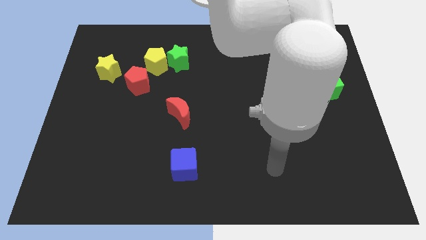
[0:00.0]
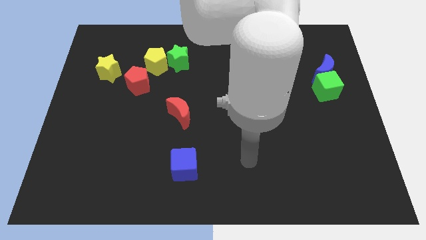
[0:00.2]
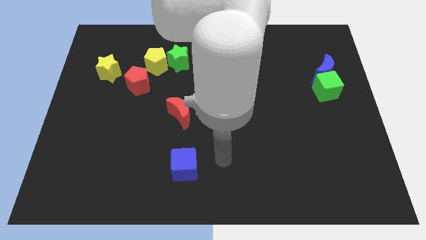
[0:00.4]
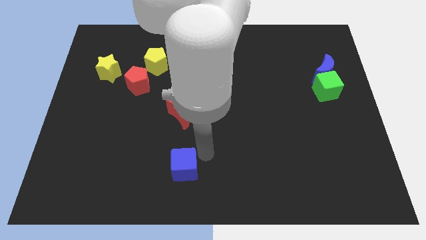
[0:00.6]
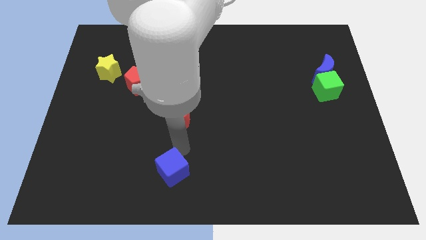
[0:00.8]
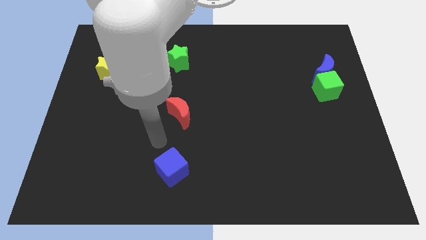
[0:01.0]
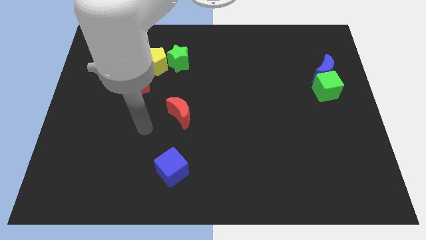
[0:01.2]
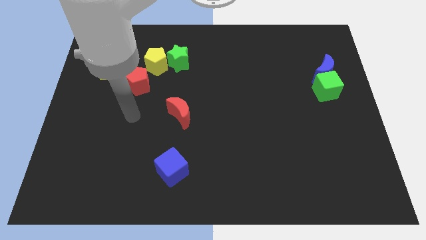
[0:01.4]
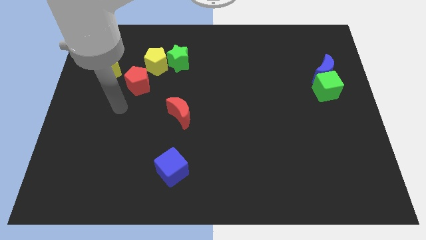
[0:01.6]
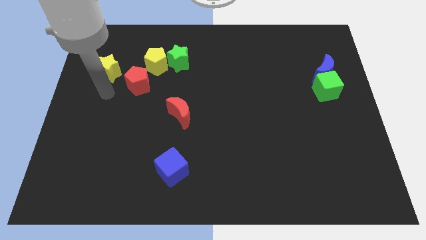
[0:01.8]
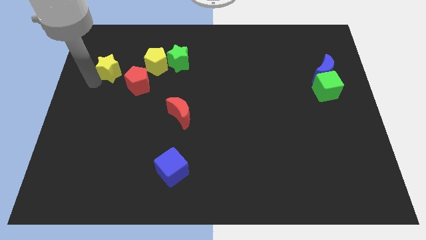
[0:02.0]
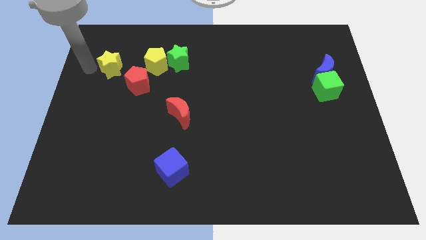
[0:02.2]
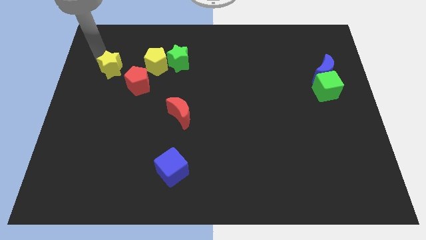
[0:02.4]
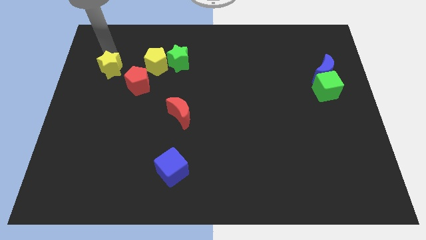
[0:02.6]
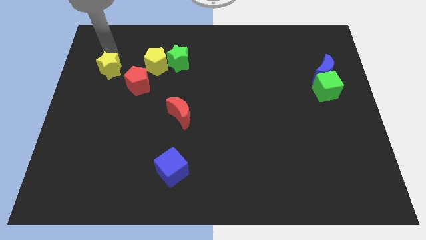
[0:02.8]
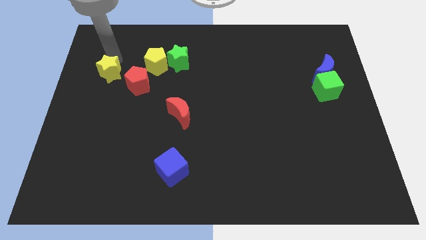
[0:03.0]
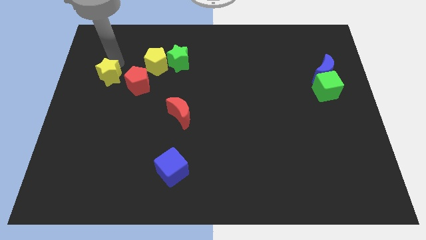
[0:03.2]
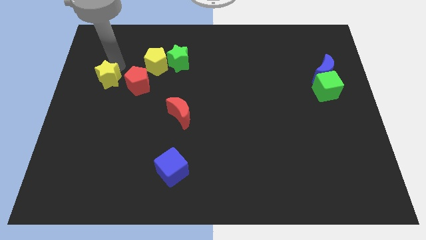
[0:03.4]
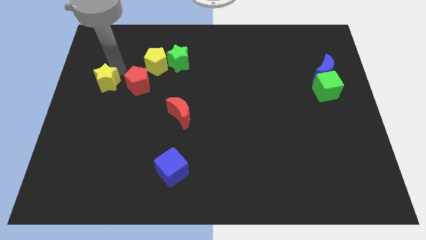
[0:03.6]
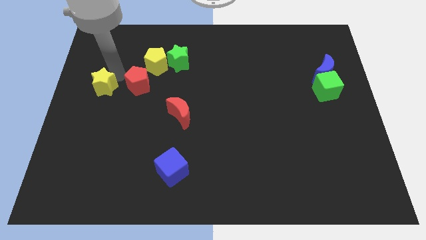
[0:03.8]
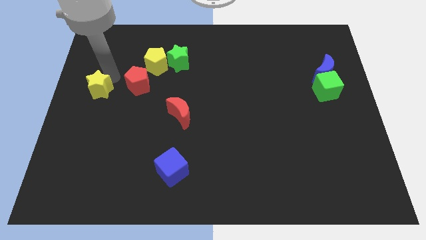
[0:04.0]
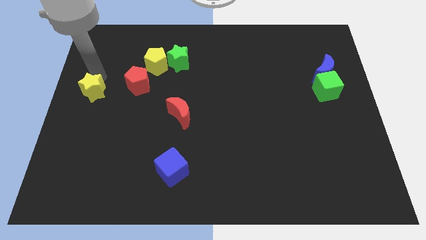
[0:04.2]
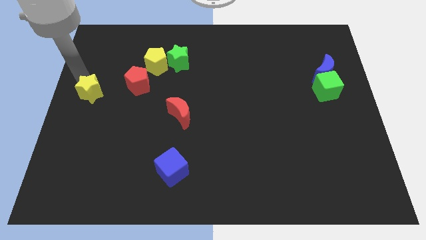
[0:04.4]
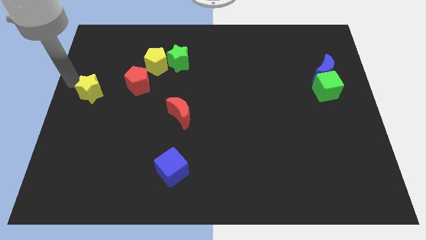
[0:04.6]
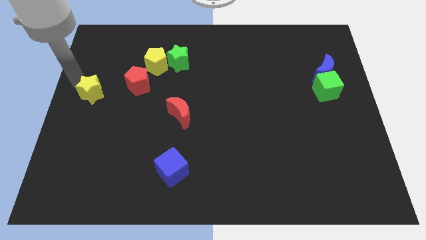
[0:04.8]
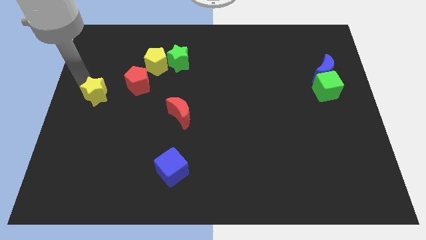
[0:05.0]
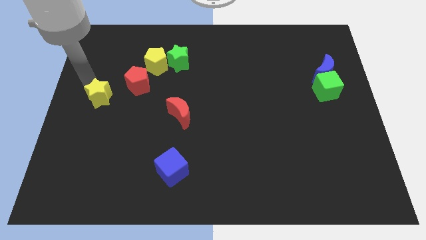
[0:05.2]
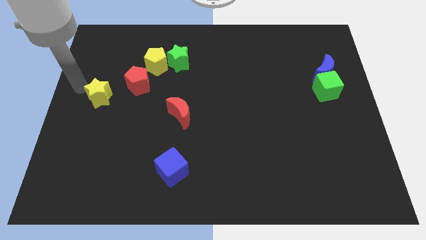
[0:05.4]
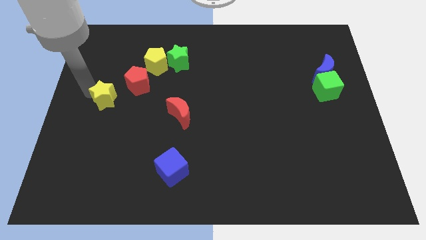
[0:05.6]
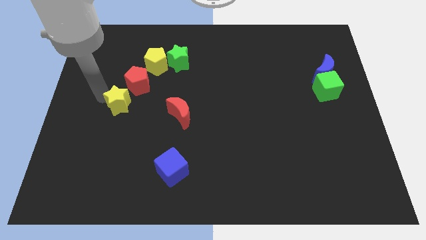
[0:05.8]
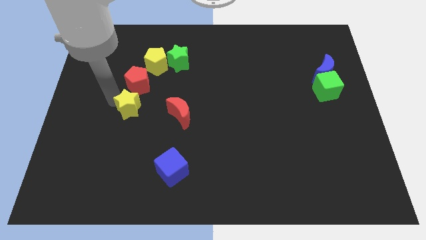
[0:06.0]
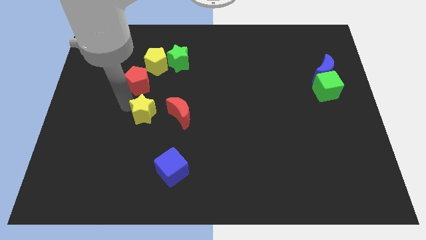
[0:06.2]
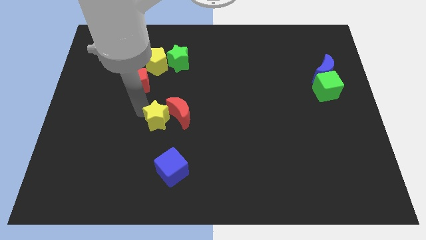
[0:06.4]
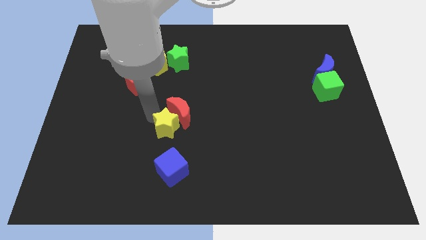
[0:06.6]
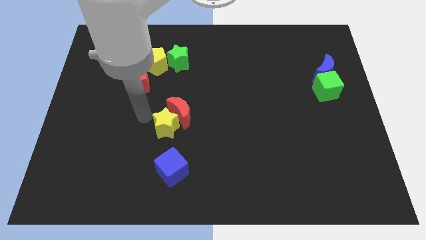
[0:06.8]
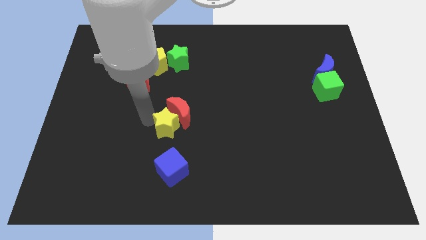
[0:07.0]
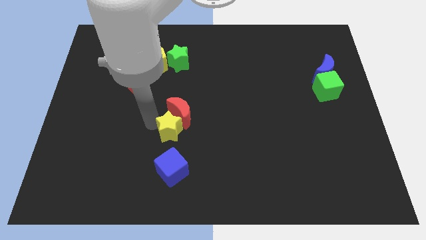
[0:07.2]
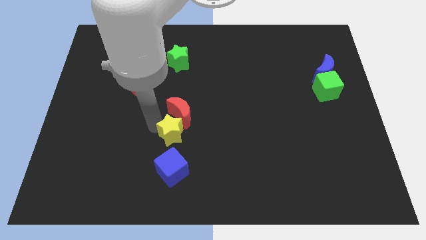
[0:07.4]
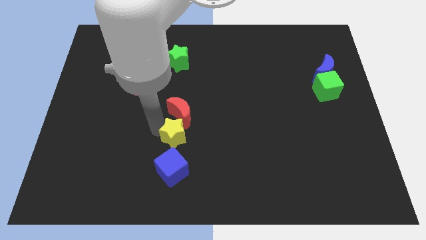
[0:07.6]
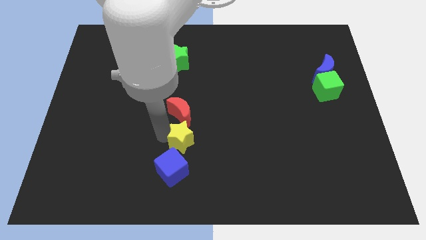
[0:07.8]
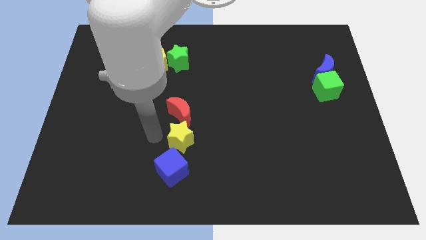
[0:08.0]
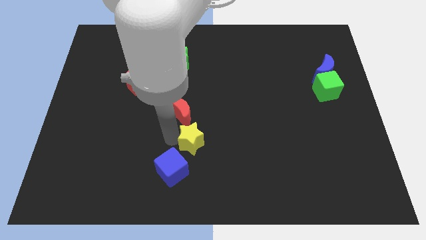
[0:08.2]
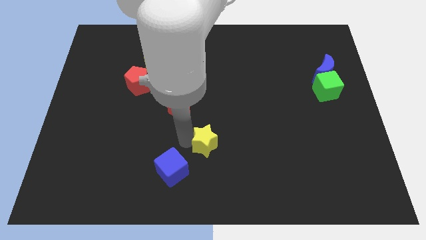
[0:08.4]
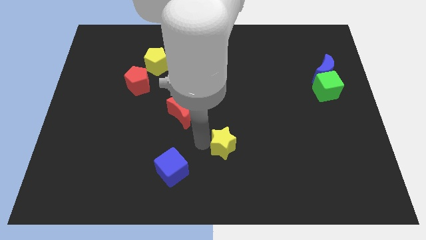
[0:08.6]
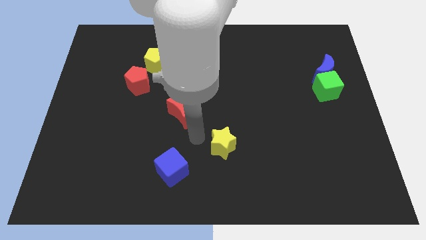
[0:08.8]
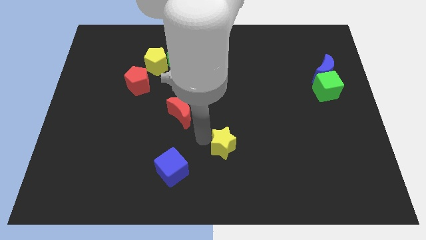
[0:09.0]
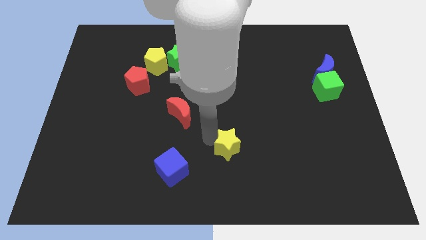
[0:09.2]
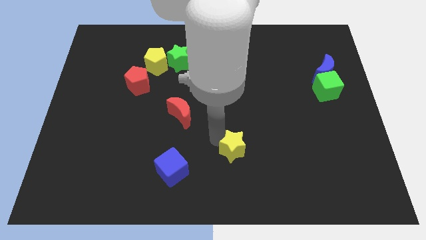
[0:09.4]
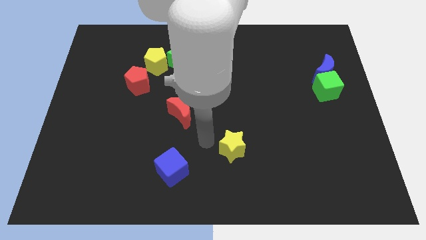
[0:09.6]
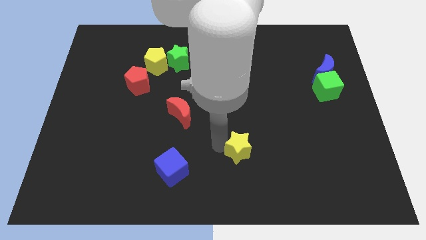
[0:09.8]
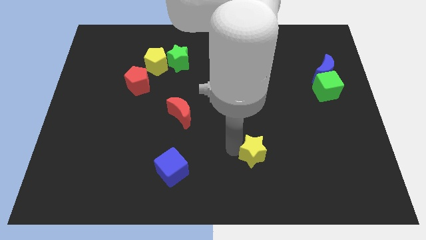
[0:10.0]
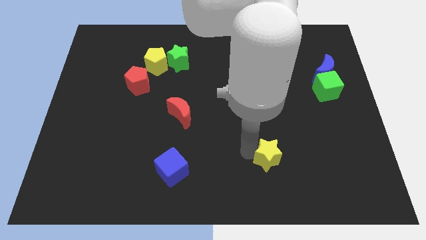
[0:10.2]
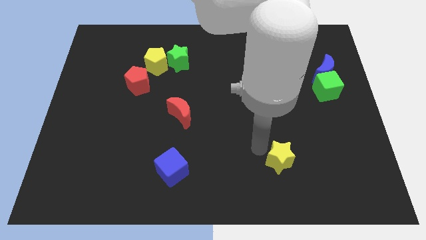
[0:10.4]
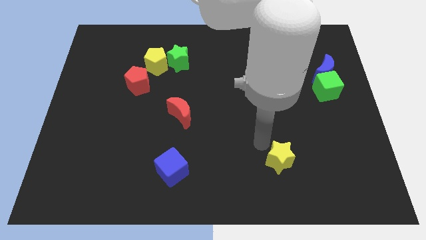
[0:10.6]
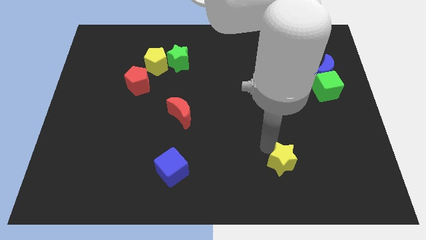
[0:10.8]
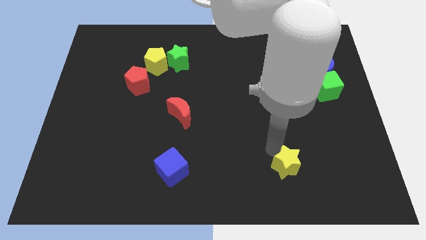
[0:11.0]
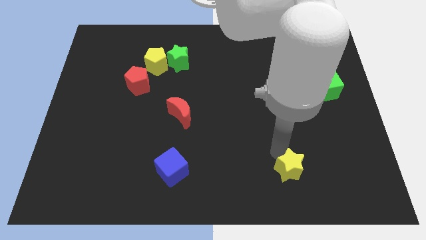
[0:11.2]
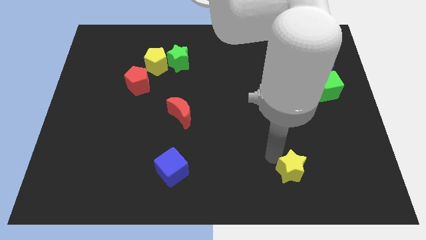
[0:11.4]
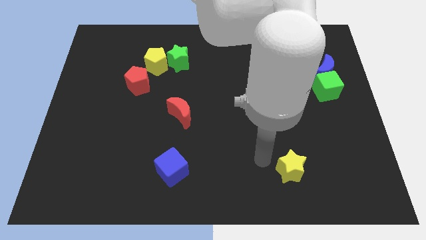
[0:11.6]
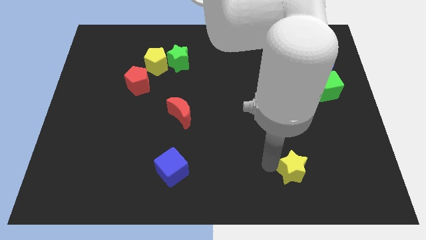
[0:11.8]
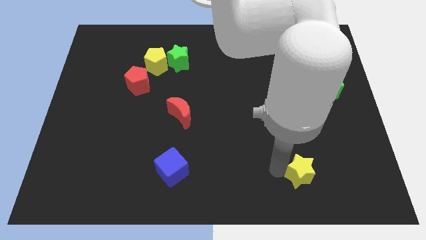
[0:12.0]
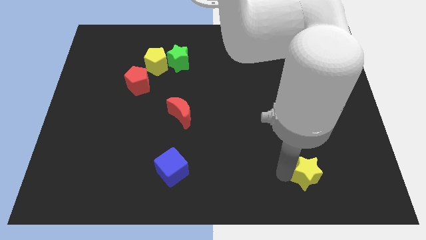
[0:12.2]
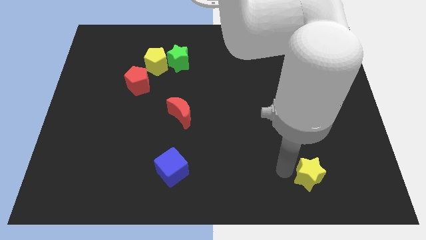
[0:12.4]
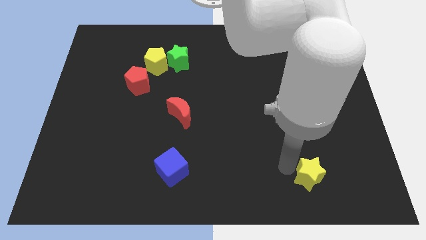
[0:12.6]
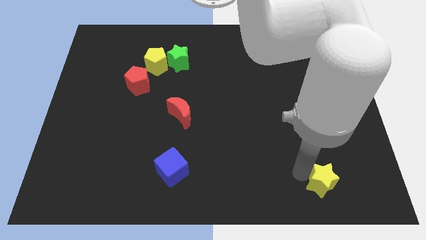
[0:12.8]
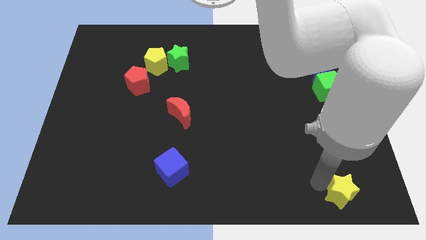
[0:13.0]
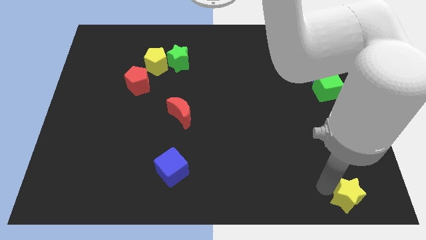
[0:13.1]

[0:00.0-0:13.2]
put the yellow star to the bottom right of the board

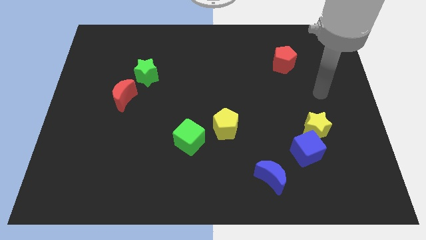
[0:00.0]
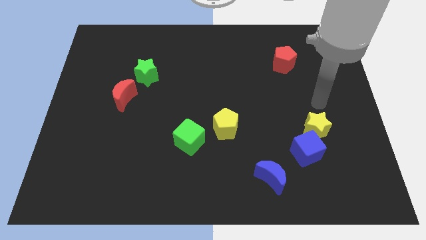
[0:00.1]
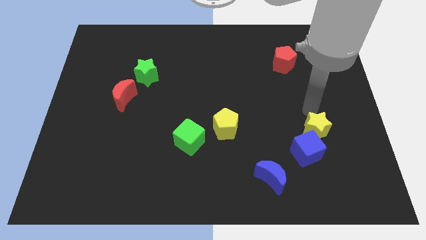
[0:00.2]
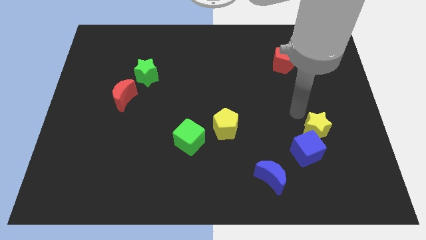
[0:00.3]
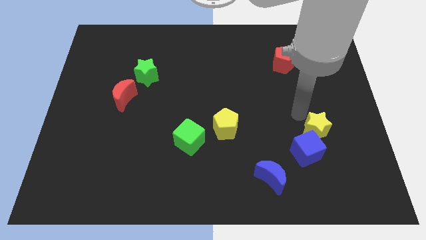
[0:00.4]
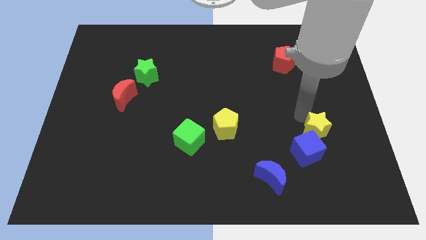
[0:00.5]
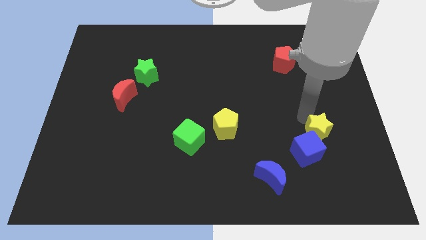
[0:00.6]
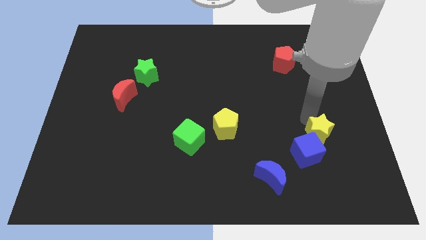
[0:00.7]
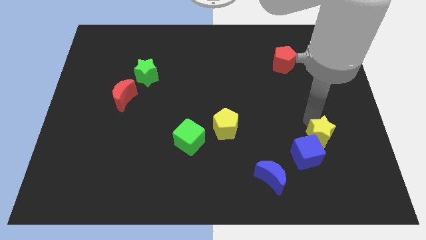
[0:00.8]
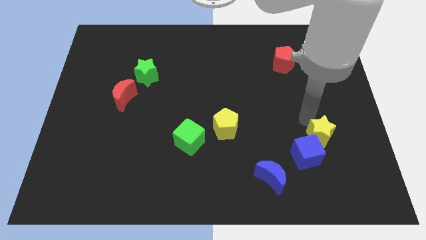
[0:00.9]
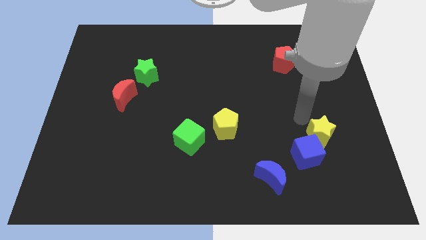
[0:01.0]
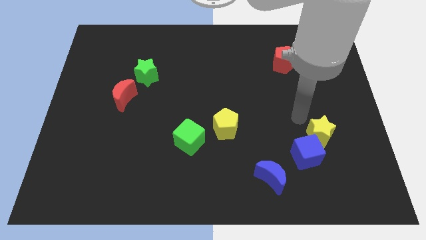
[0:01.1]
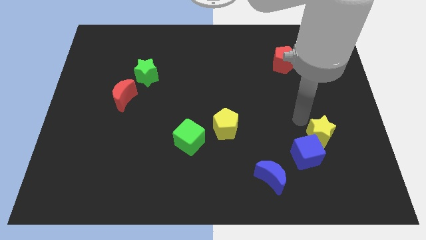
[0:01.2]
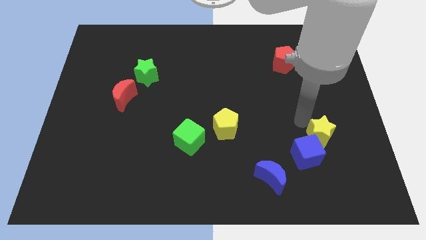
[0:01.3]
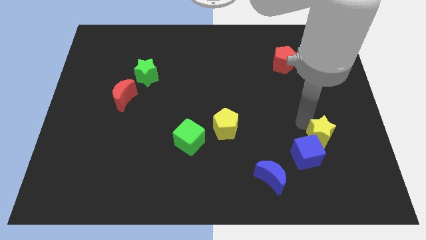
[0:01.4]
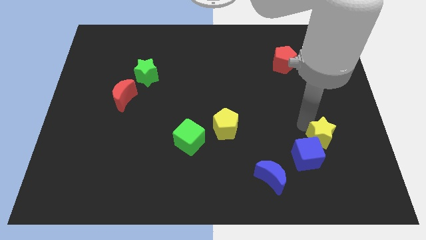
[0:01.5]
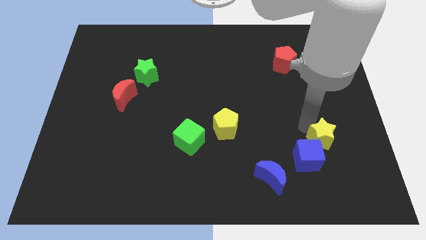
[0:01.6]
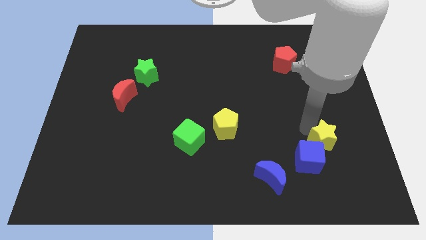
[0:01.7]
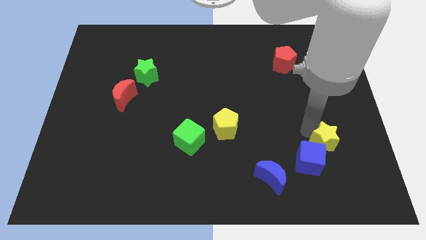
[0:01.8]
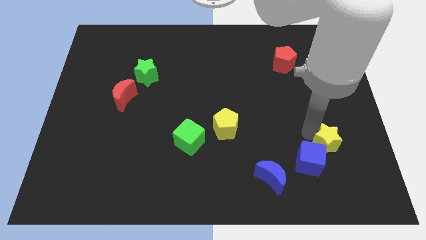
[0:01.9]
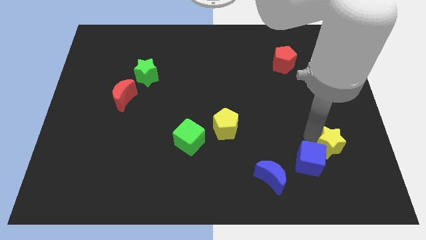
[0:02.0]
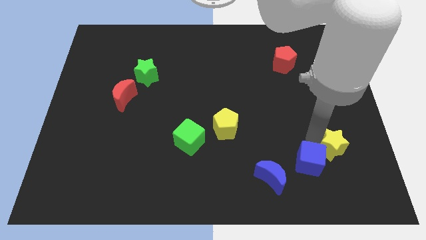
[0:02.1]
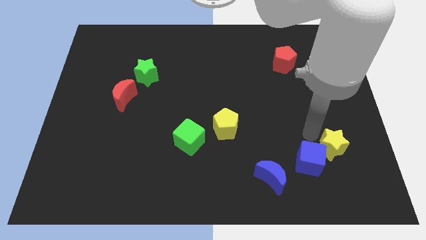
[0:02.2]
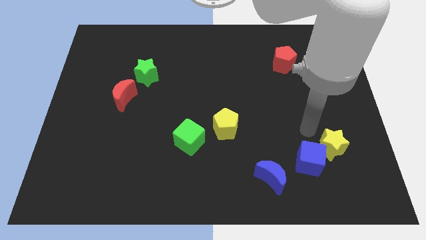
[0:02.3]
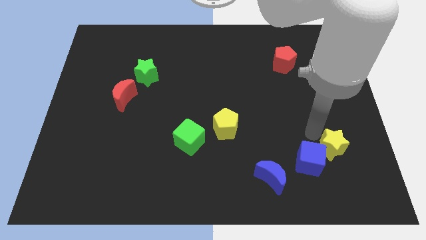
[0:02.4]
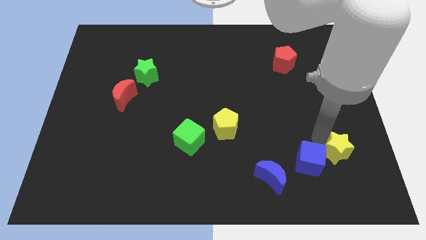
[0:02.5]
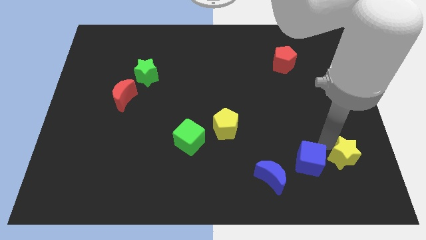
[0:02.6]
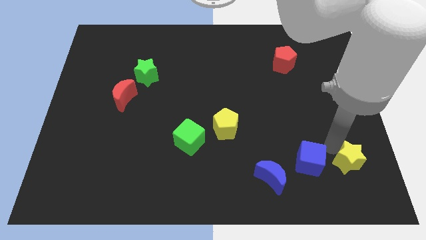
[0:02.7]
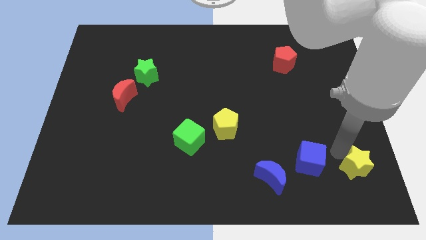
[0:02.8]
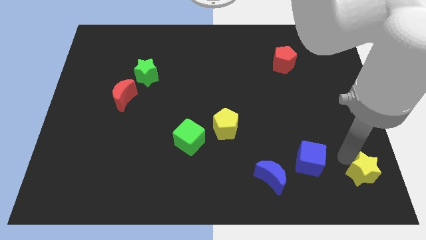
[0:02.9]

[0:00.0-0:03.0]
slide the yellow star to the lower right corner
